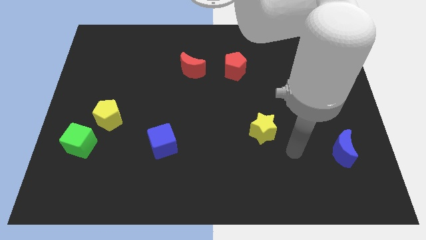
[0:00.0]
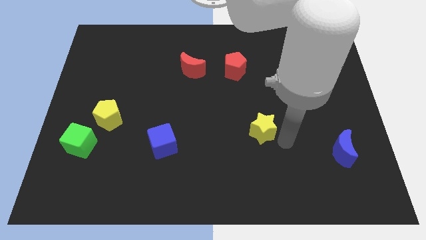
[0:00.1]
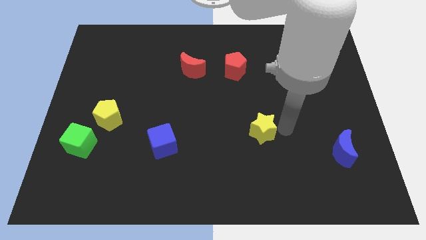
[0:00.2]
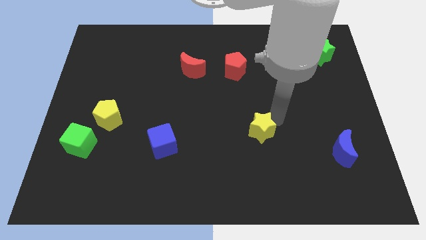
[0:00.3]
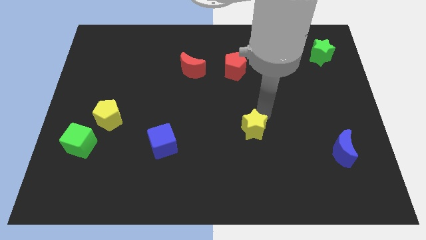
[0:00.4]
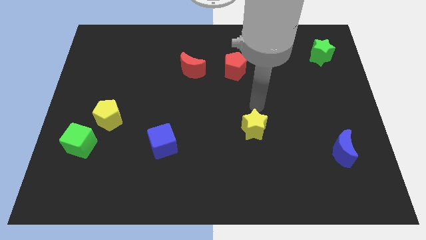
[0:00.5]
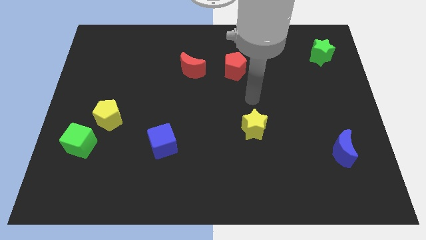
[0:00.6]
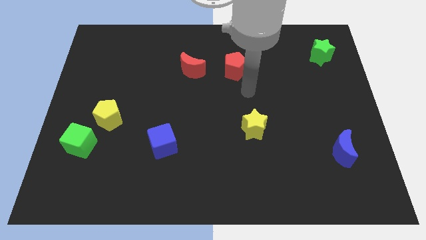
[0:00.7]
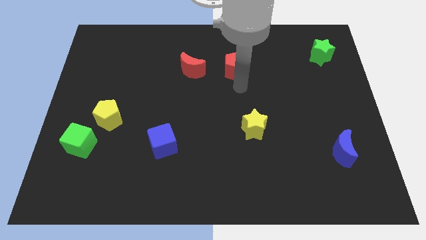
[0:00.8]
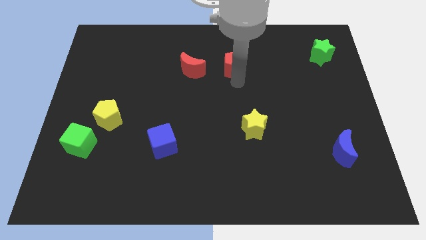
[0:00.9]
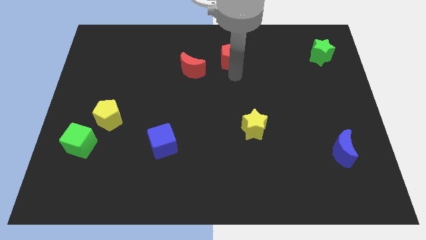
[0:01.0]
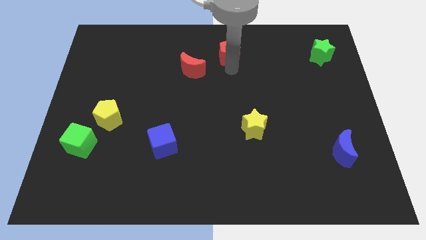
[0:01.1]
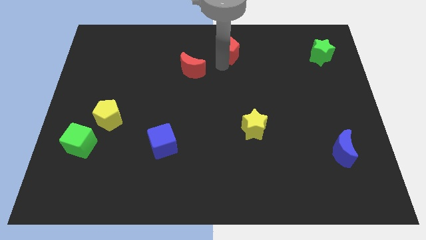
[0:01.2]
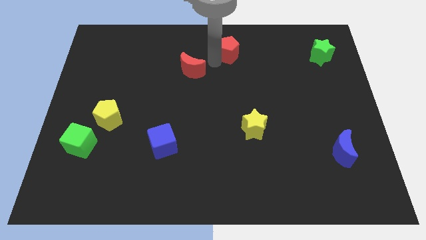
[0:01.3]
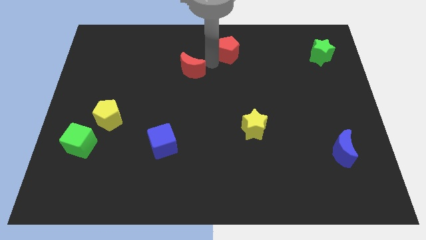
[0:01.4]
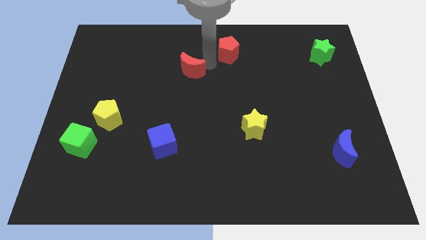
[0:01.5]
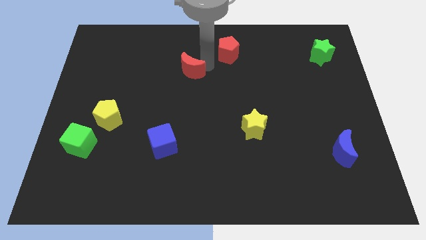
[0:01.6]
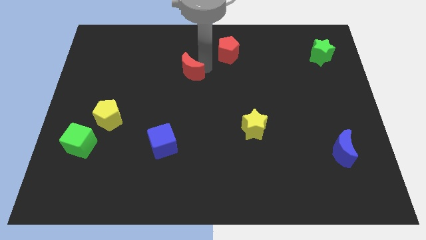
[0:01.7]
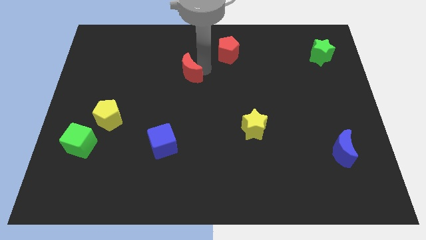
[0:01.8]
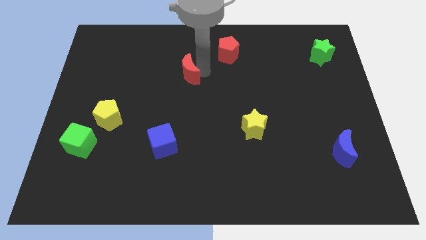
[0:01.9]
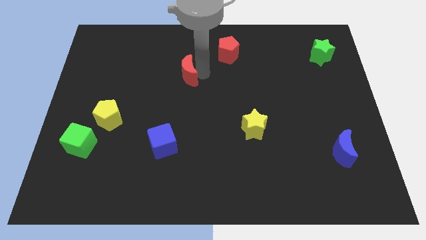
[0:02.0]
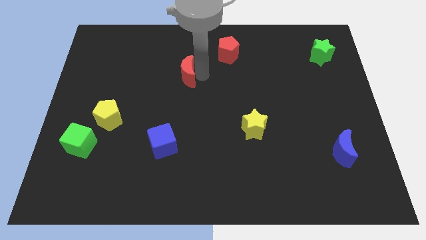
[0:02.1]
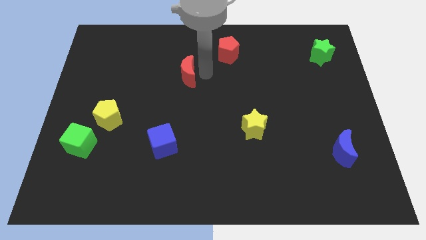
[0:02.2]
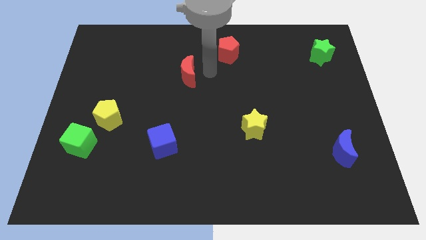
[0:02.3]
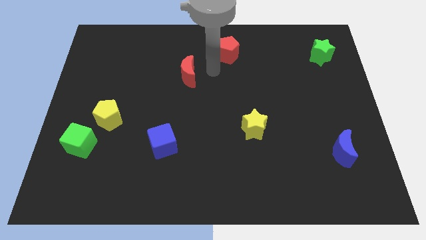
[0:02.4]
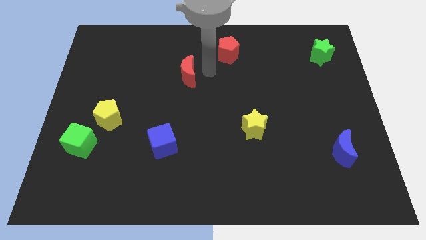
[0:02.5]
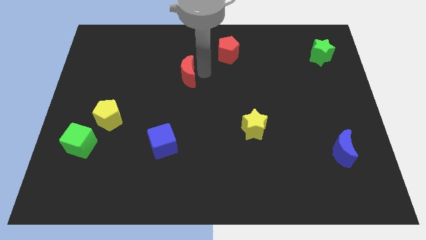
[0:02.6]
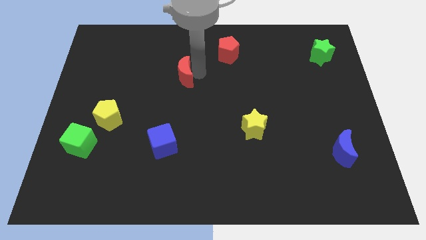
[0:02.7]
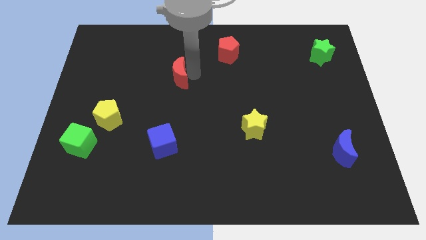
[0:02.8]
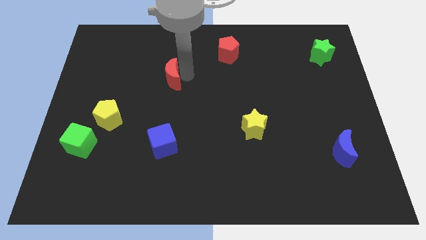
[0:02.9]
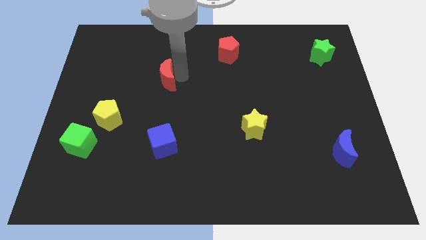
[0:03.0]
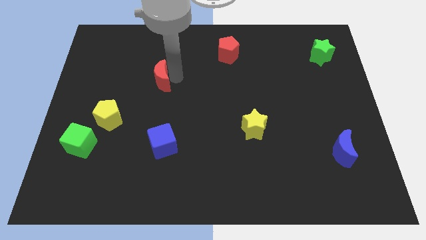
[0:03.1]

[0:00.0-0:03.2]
slide the red moon downwards and then left a little

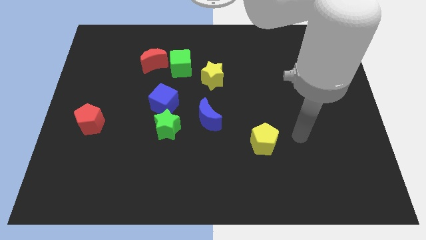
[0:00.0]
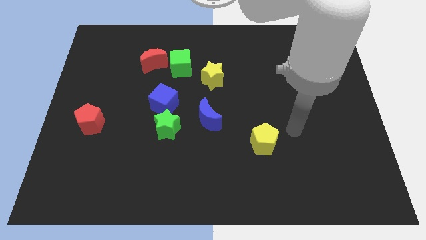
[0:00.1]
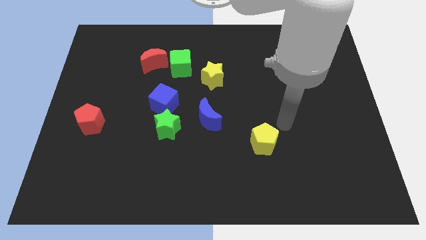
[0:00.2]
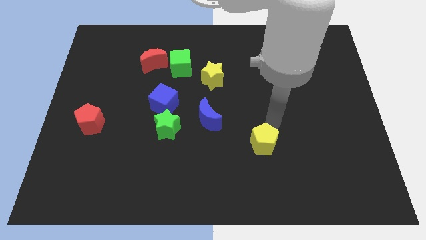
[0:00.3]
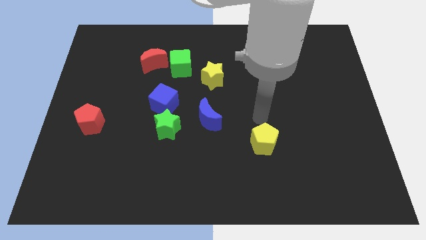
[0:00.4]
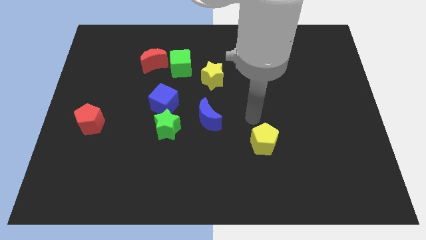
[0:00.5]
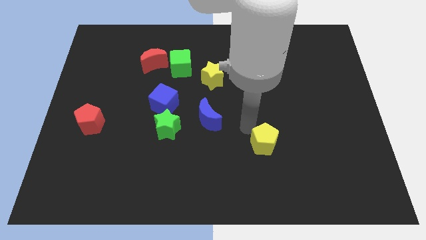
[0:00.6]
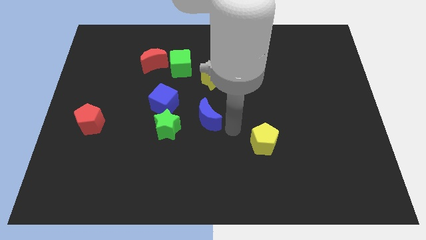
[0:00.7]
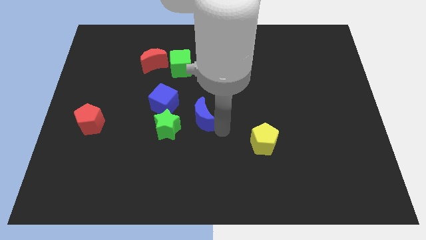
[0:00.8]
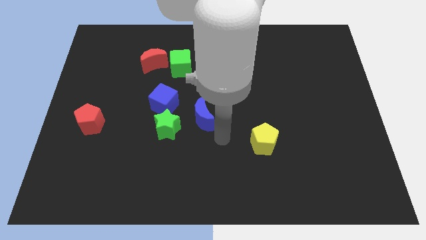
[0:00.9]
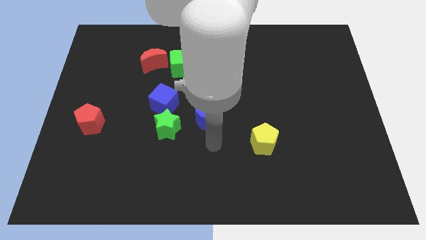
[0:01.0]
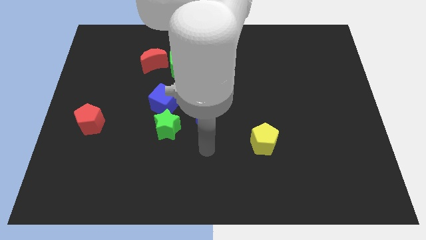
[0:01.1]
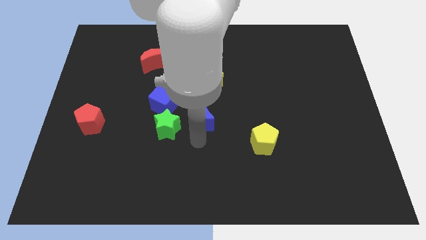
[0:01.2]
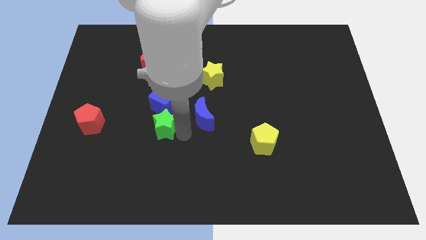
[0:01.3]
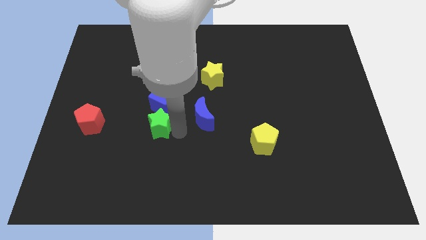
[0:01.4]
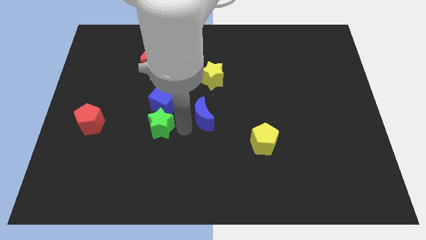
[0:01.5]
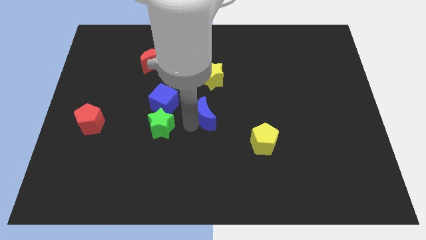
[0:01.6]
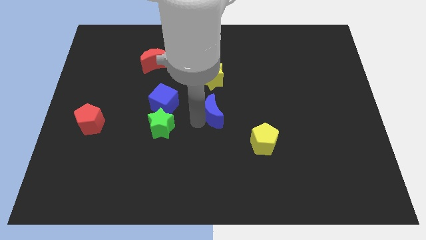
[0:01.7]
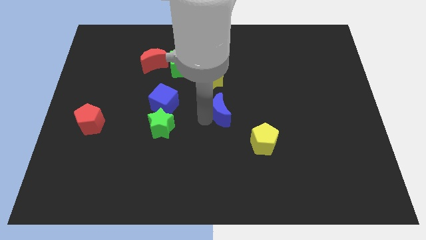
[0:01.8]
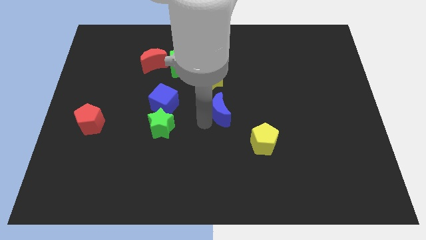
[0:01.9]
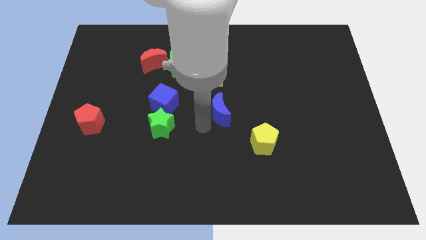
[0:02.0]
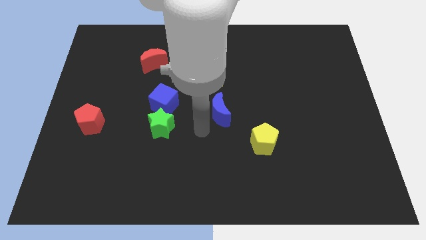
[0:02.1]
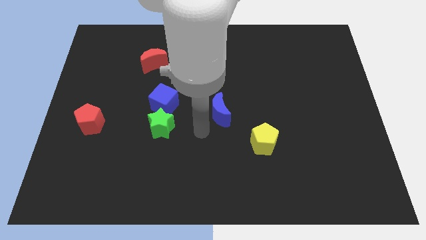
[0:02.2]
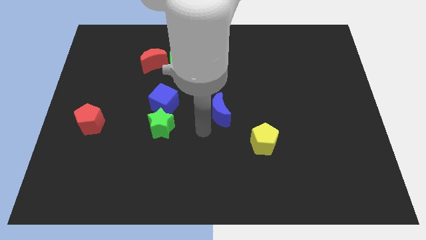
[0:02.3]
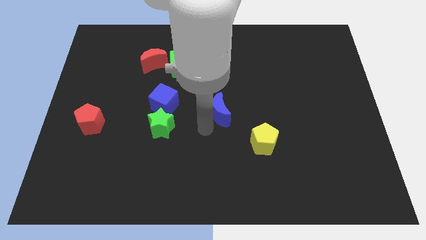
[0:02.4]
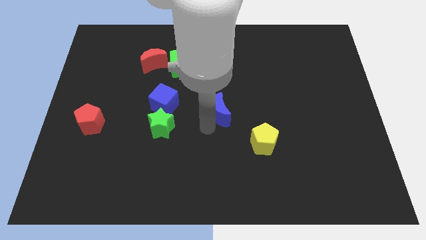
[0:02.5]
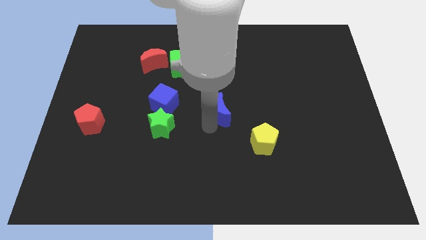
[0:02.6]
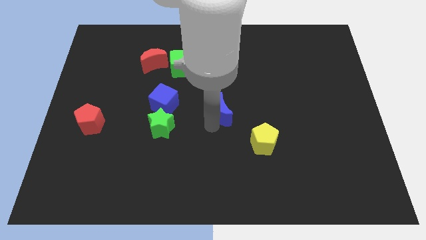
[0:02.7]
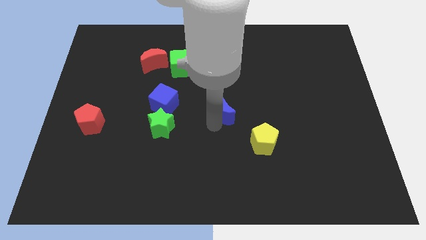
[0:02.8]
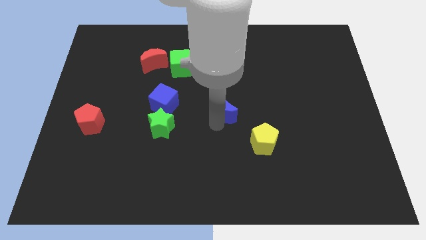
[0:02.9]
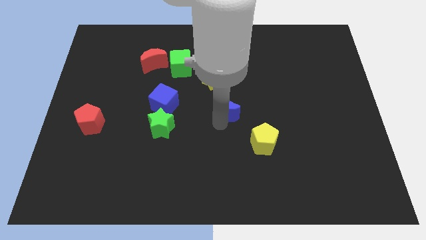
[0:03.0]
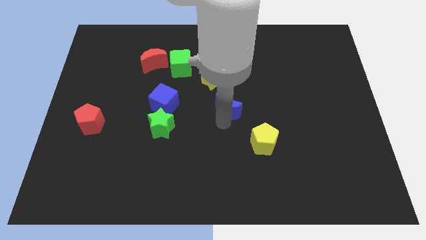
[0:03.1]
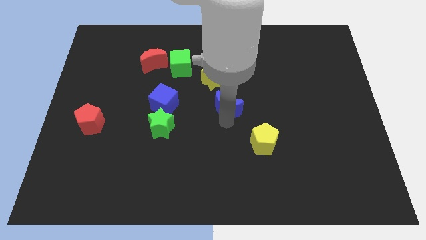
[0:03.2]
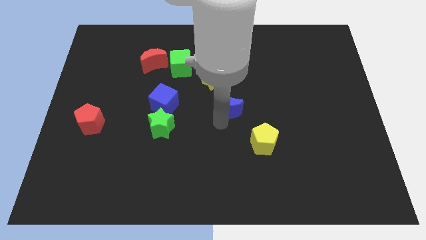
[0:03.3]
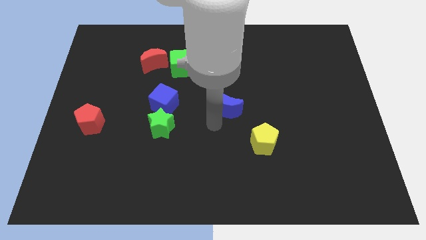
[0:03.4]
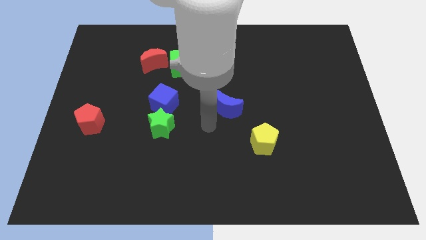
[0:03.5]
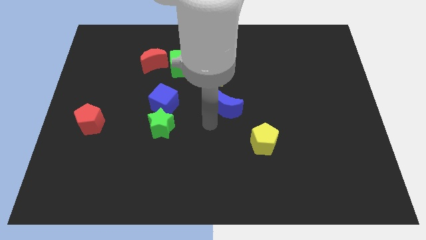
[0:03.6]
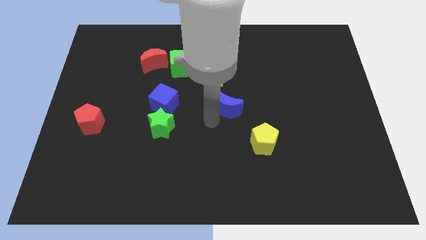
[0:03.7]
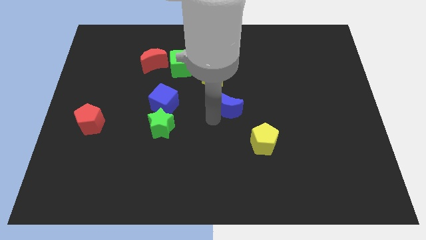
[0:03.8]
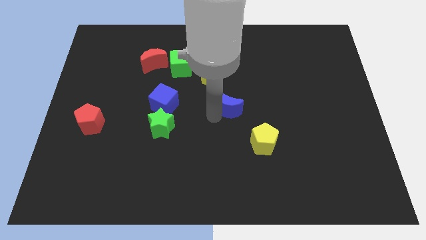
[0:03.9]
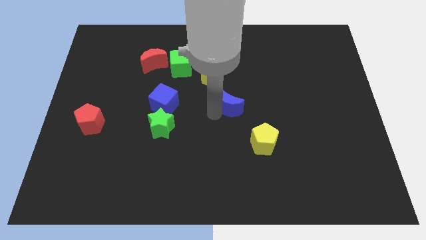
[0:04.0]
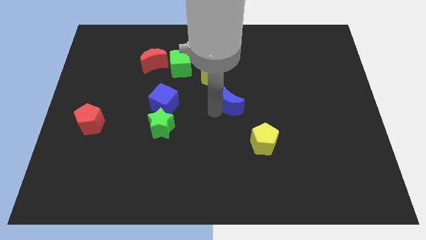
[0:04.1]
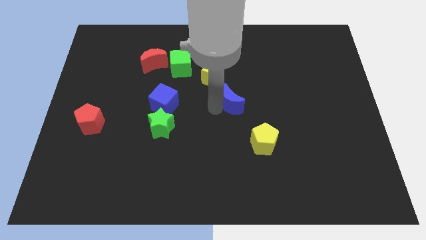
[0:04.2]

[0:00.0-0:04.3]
slide the blue moon a bit upwards and then right

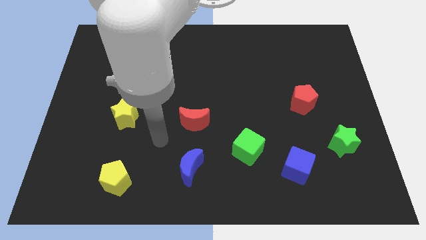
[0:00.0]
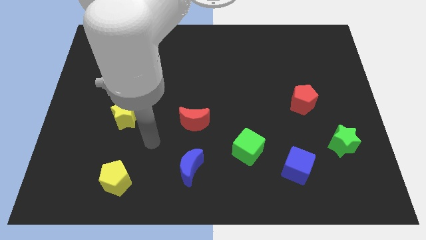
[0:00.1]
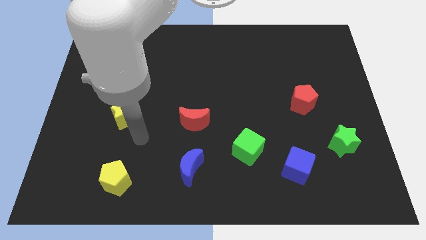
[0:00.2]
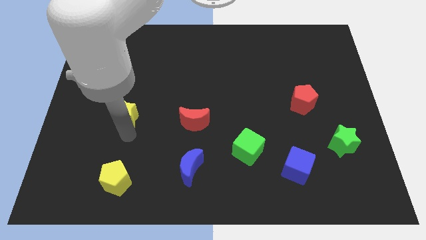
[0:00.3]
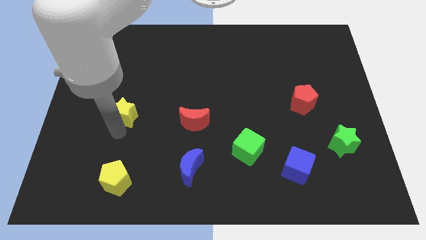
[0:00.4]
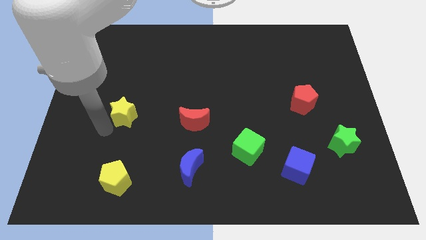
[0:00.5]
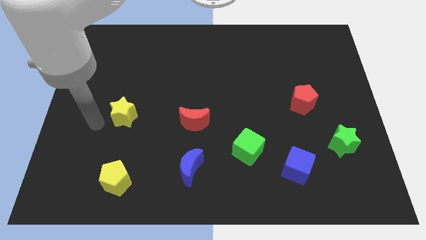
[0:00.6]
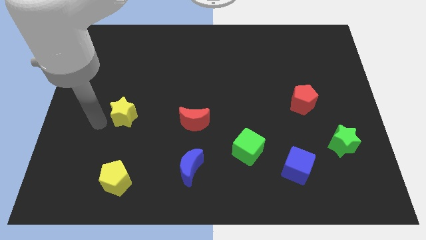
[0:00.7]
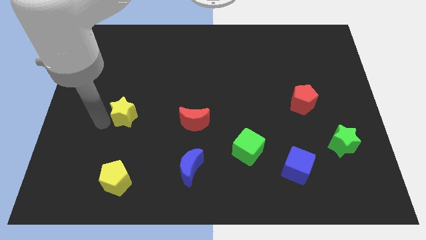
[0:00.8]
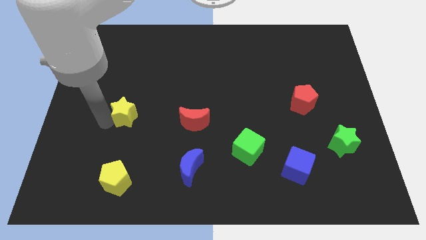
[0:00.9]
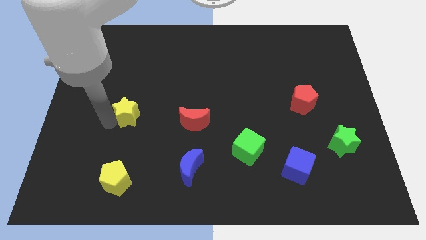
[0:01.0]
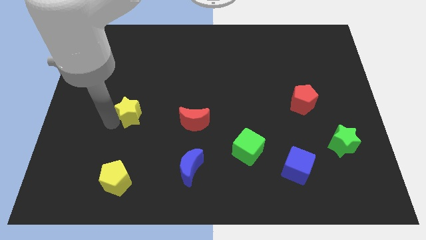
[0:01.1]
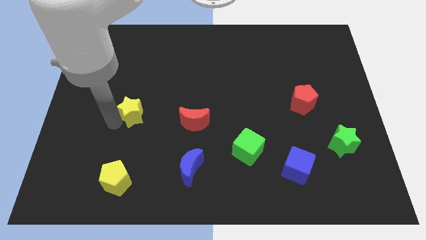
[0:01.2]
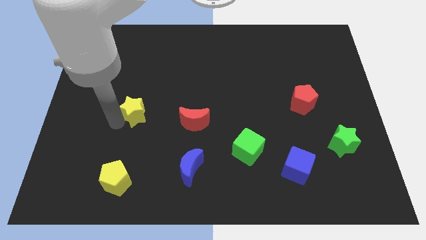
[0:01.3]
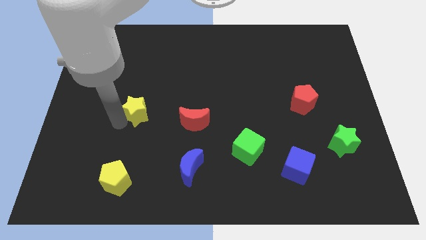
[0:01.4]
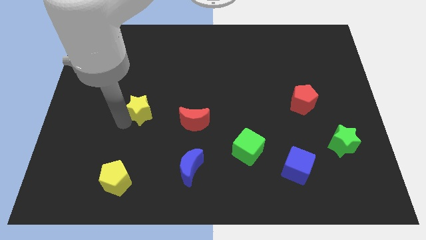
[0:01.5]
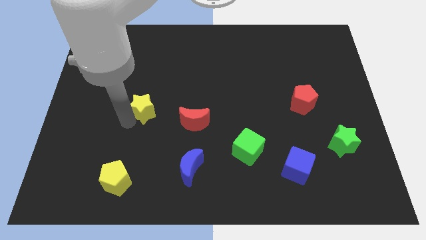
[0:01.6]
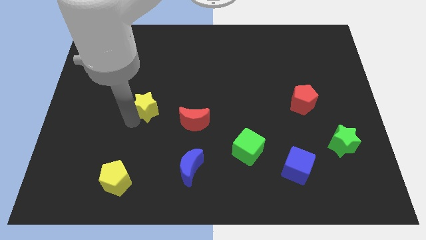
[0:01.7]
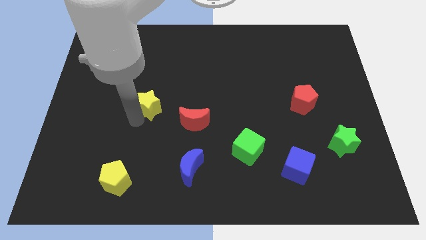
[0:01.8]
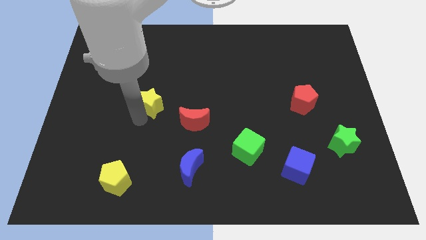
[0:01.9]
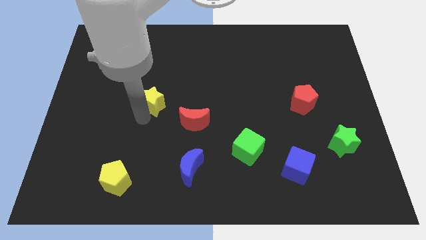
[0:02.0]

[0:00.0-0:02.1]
push the yellow star a little bit diagonally upwards and right
